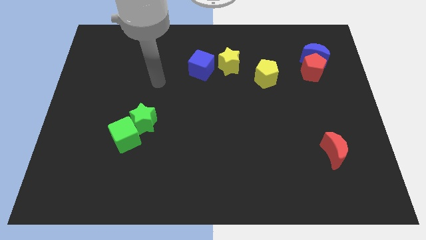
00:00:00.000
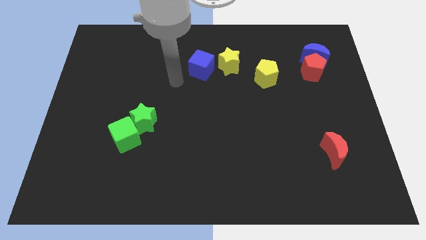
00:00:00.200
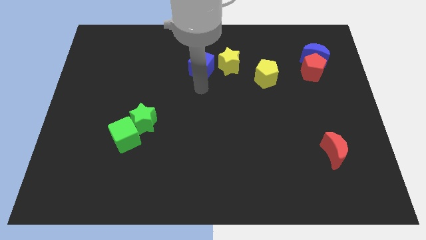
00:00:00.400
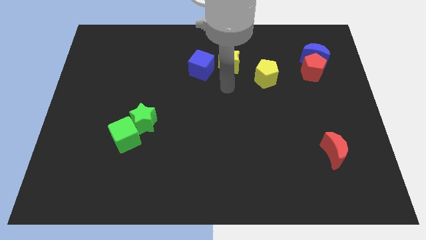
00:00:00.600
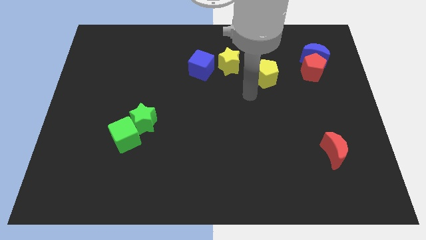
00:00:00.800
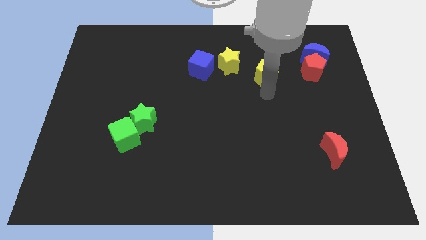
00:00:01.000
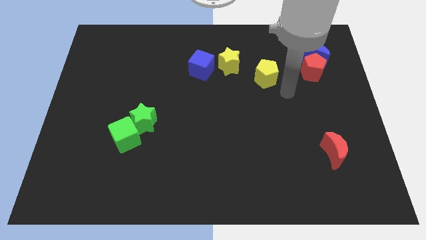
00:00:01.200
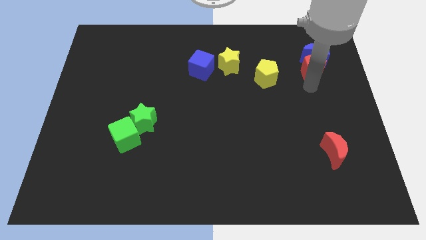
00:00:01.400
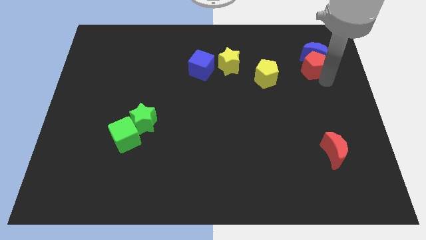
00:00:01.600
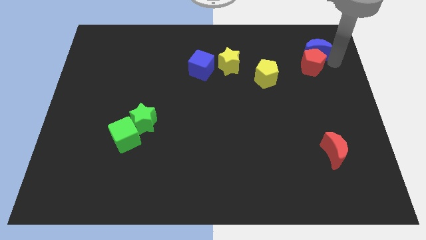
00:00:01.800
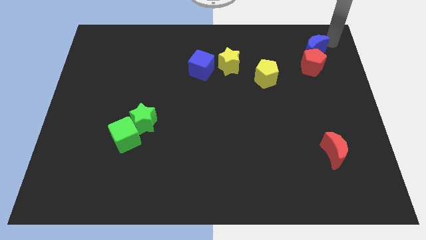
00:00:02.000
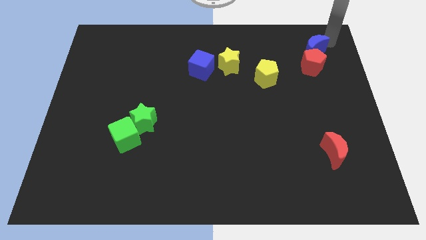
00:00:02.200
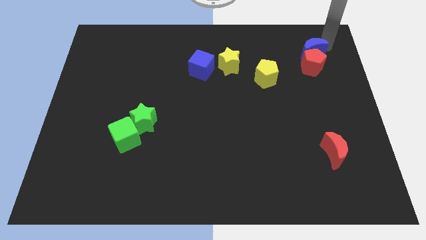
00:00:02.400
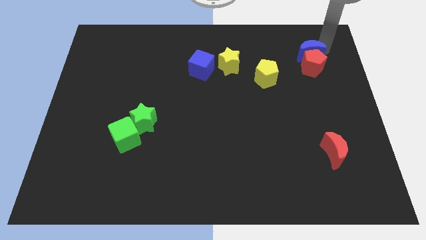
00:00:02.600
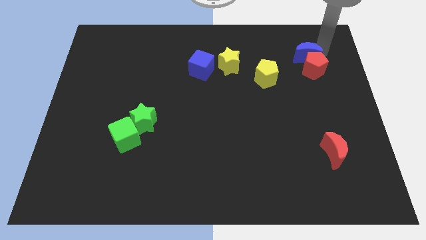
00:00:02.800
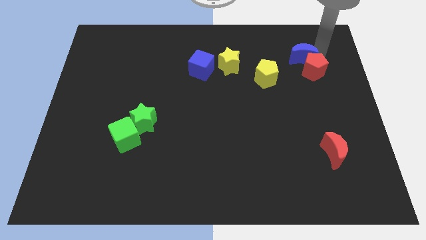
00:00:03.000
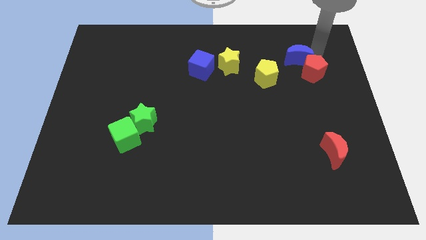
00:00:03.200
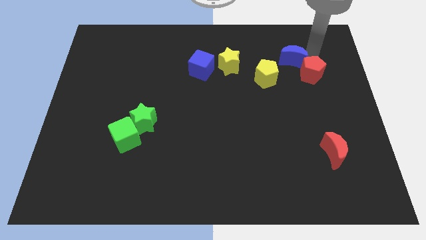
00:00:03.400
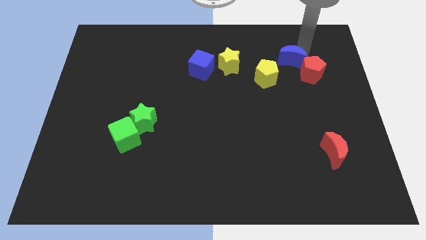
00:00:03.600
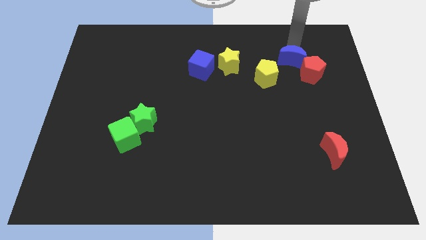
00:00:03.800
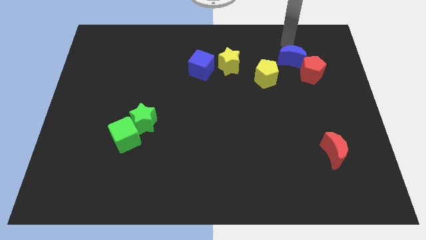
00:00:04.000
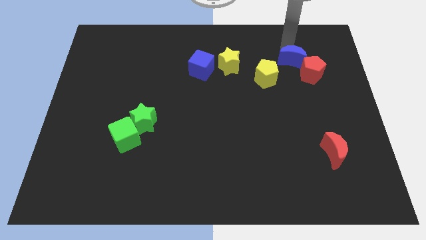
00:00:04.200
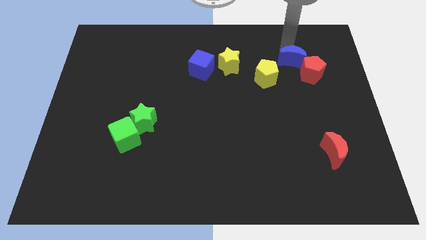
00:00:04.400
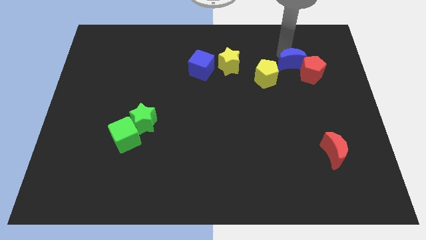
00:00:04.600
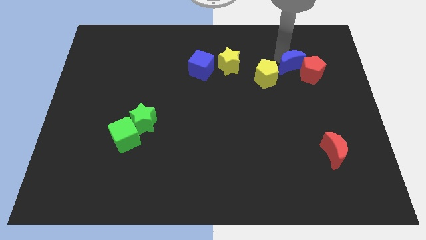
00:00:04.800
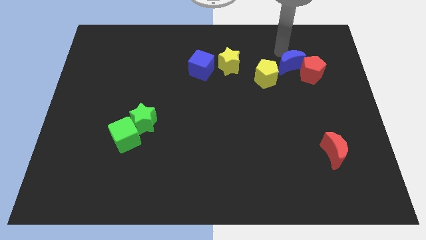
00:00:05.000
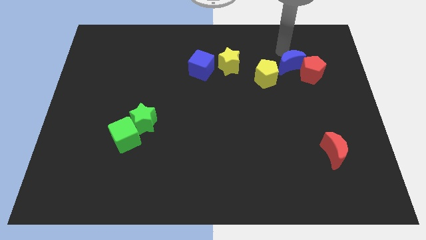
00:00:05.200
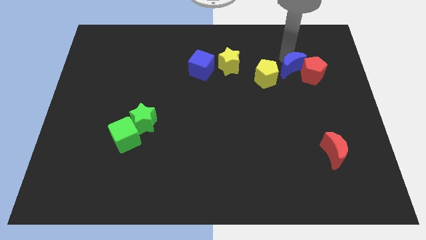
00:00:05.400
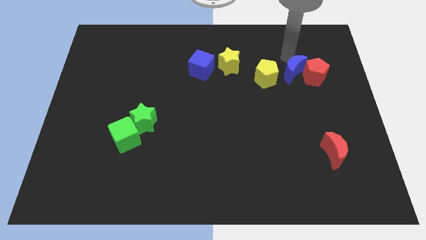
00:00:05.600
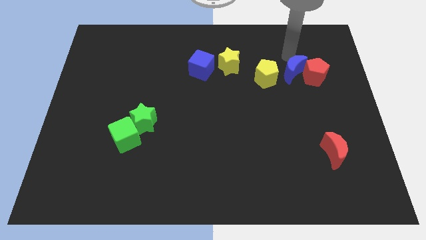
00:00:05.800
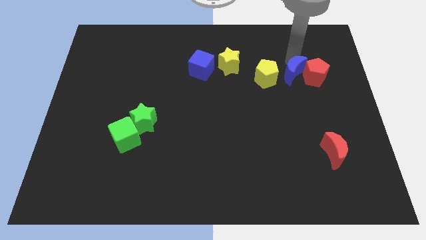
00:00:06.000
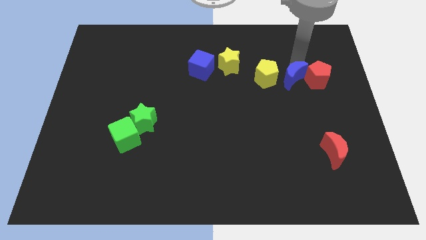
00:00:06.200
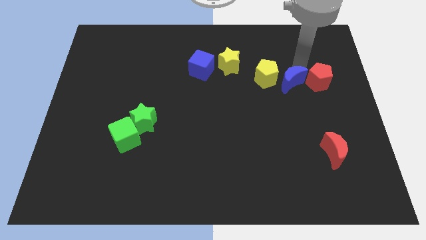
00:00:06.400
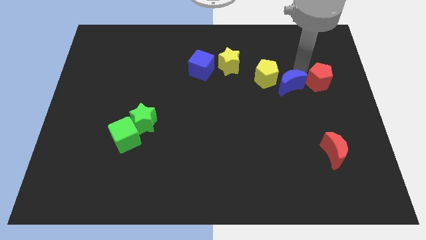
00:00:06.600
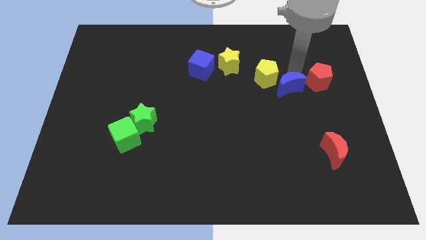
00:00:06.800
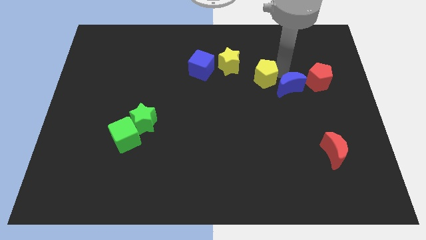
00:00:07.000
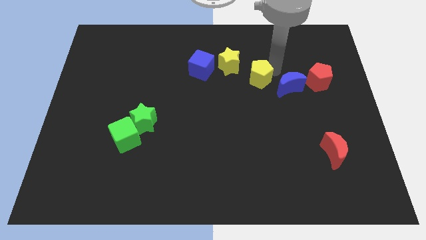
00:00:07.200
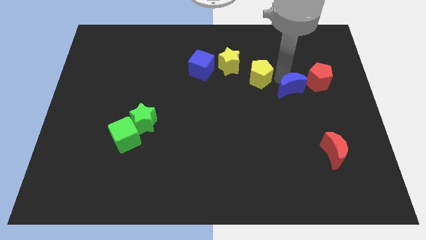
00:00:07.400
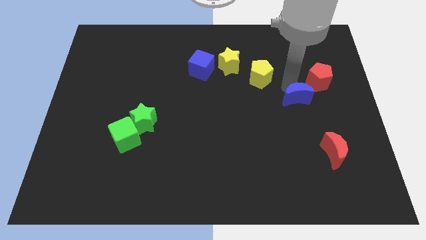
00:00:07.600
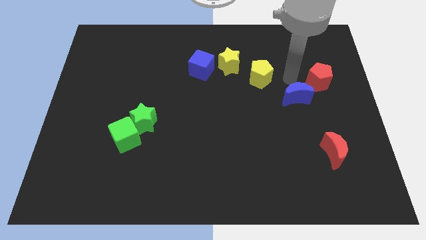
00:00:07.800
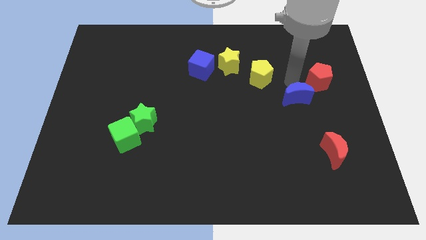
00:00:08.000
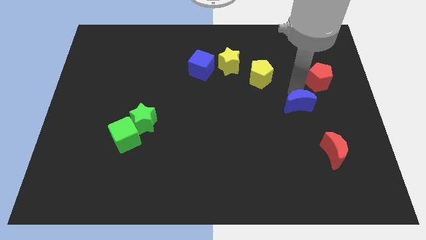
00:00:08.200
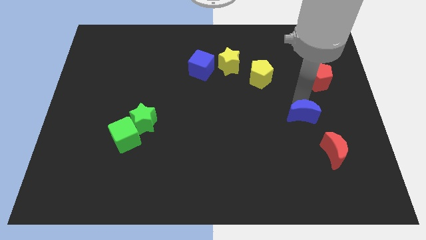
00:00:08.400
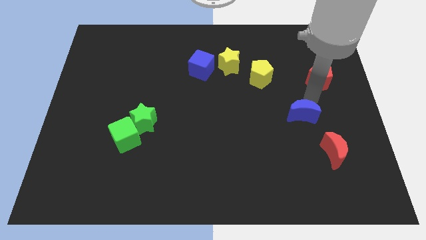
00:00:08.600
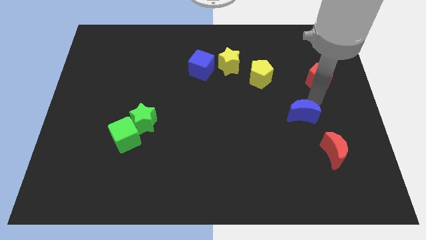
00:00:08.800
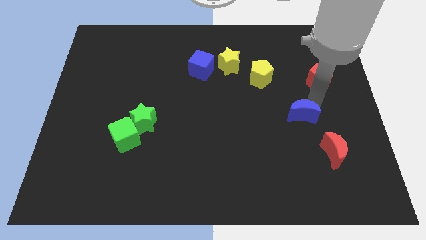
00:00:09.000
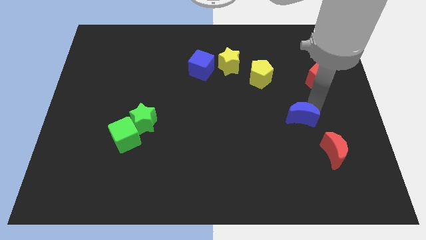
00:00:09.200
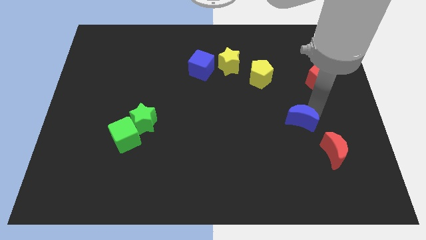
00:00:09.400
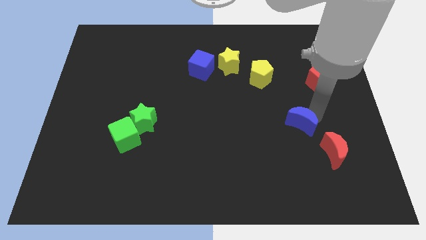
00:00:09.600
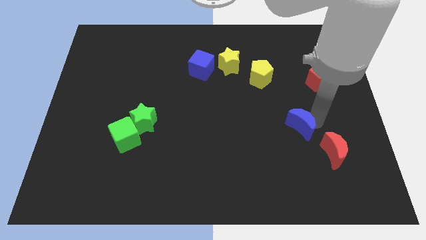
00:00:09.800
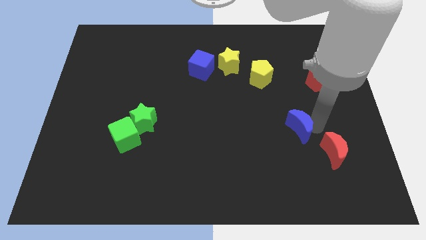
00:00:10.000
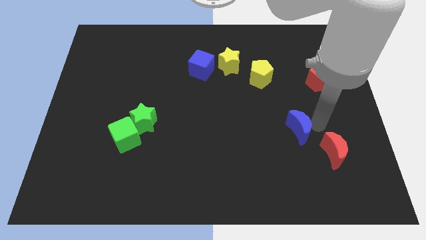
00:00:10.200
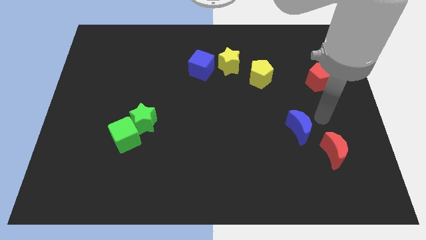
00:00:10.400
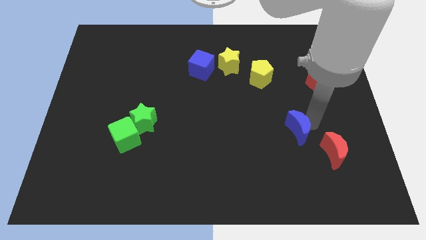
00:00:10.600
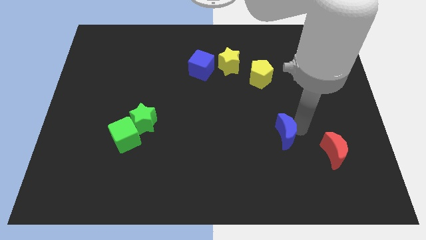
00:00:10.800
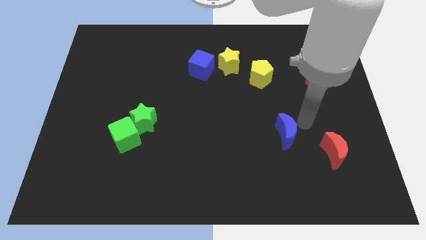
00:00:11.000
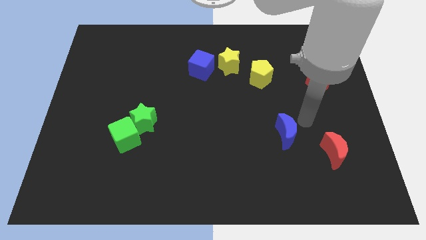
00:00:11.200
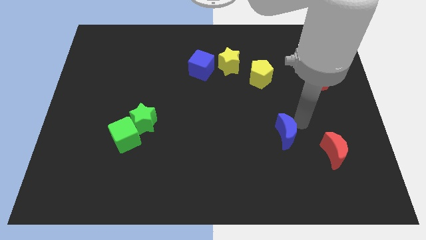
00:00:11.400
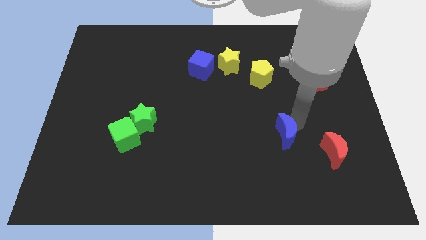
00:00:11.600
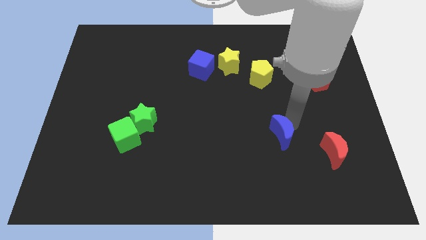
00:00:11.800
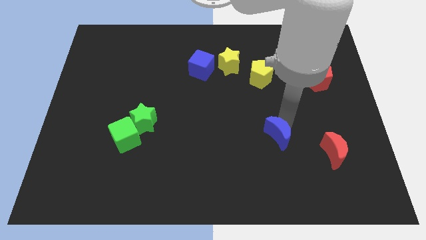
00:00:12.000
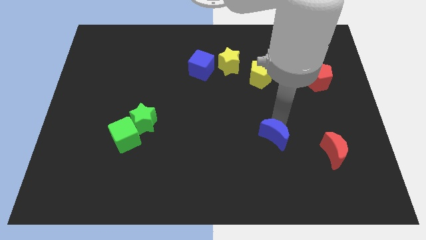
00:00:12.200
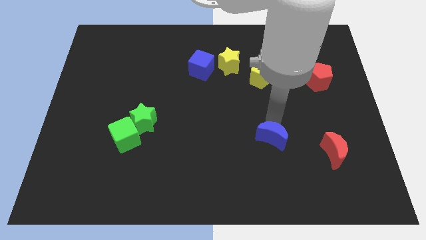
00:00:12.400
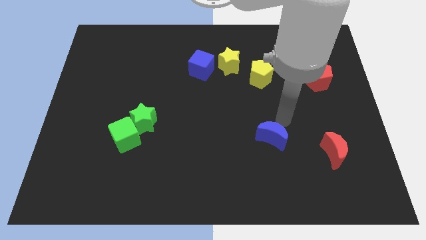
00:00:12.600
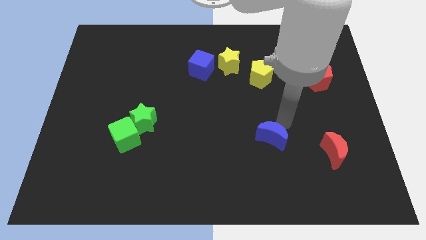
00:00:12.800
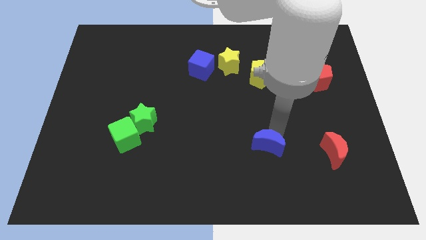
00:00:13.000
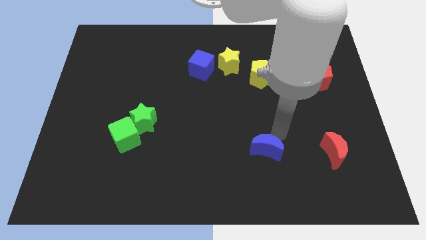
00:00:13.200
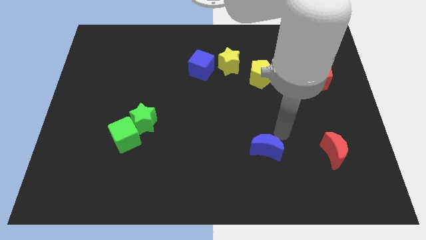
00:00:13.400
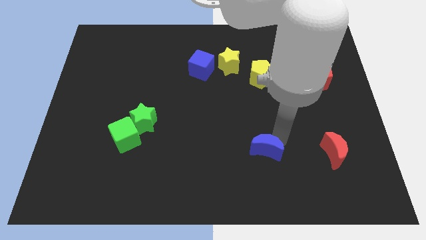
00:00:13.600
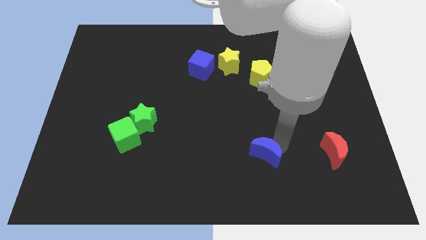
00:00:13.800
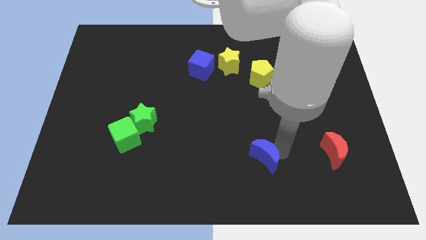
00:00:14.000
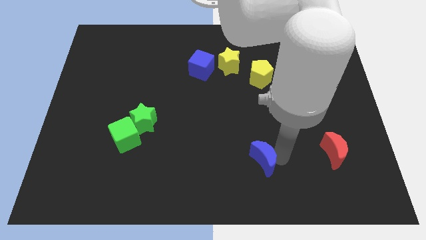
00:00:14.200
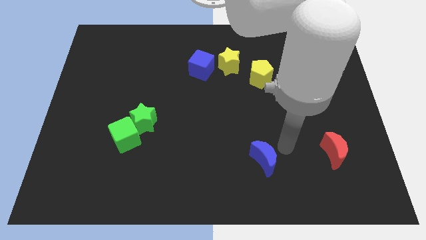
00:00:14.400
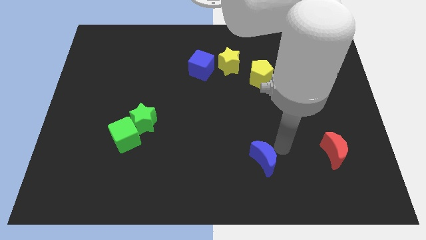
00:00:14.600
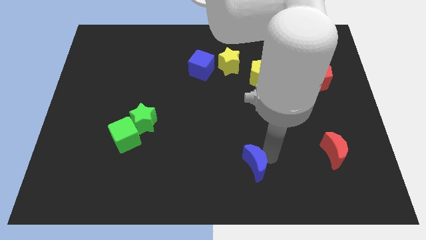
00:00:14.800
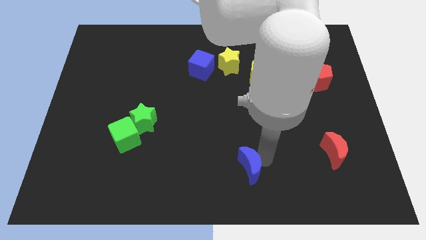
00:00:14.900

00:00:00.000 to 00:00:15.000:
push the blue moon to the bottom side
